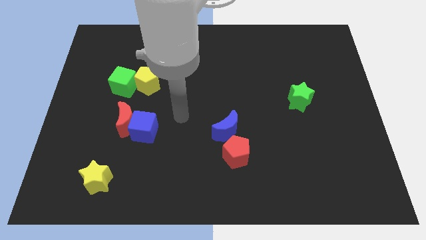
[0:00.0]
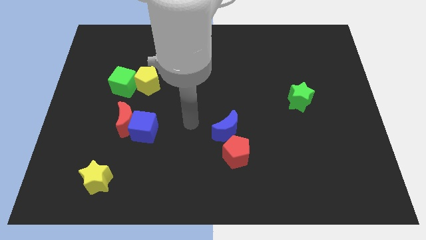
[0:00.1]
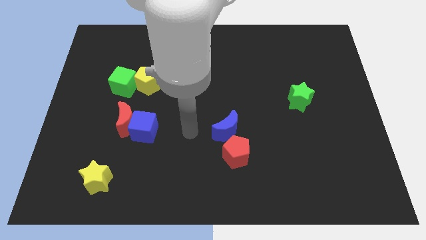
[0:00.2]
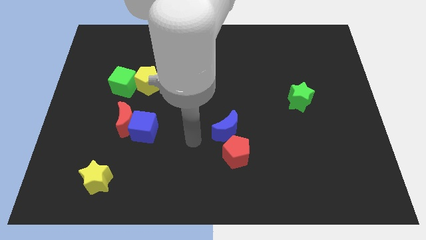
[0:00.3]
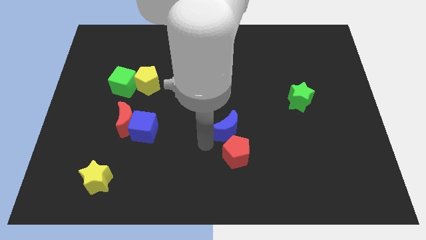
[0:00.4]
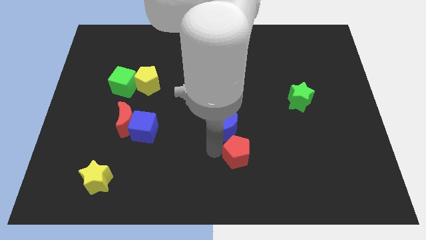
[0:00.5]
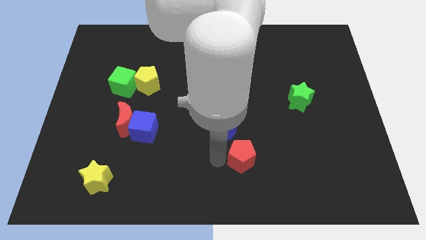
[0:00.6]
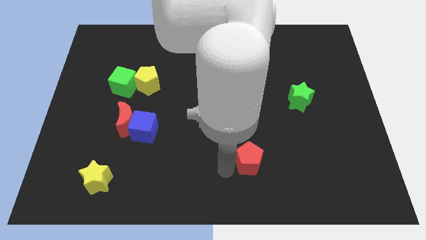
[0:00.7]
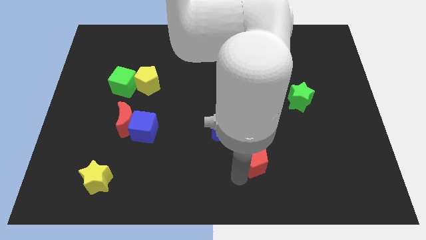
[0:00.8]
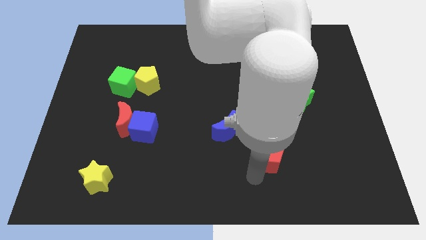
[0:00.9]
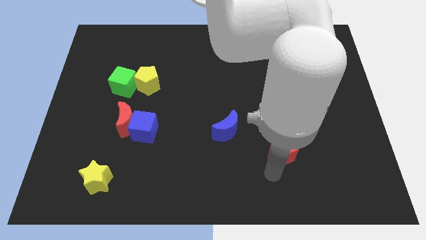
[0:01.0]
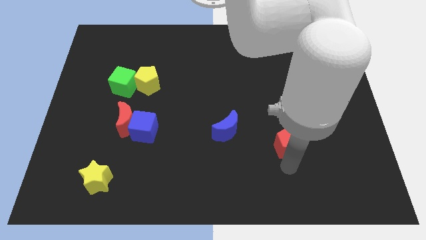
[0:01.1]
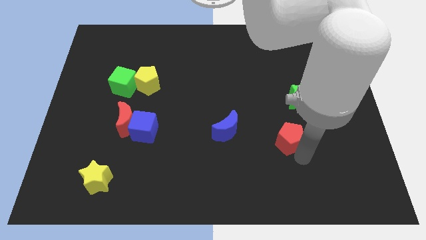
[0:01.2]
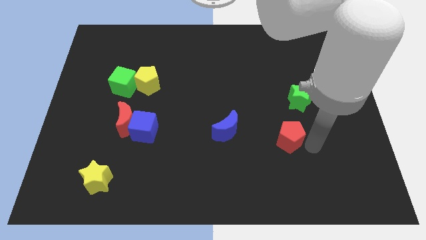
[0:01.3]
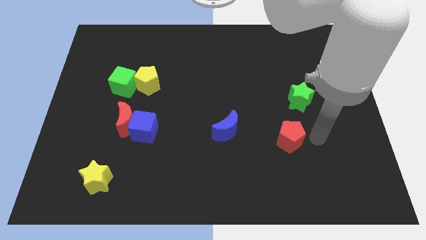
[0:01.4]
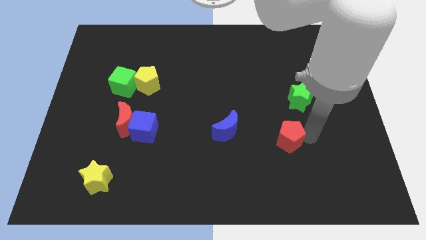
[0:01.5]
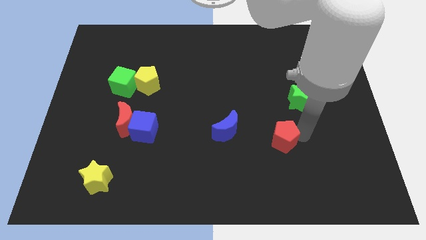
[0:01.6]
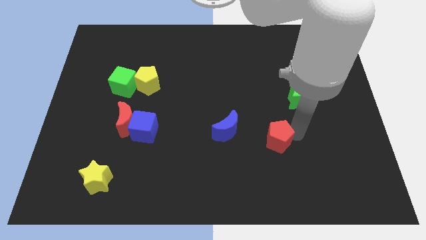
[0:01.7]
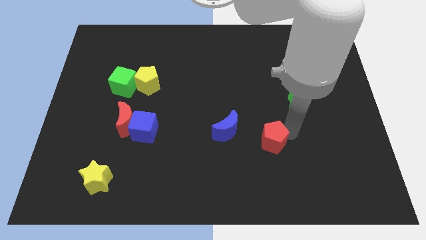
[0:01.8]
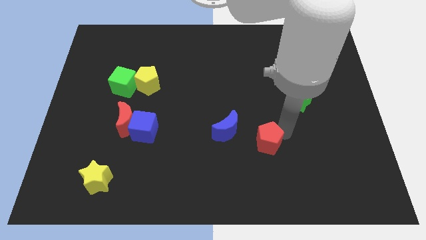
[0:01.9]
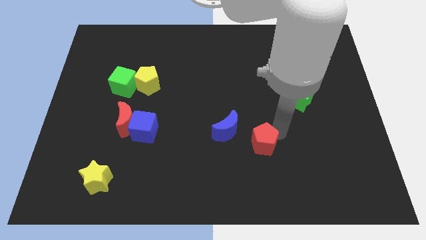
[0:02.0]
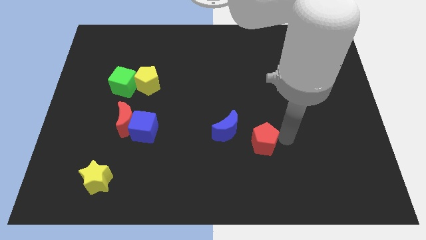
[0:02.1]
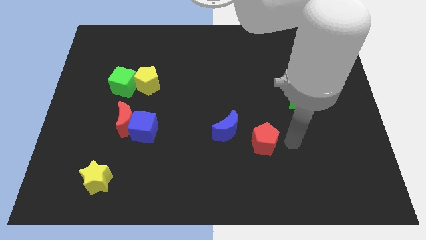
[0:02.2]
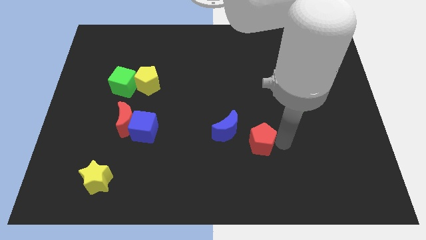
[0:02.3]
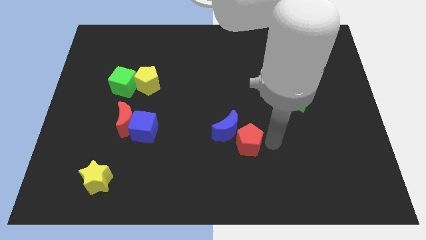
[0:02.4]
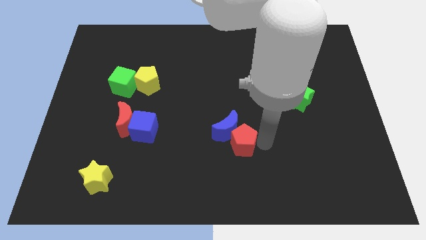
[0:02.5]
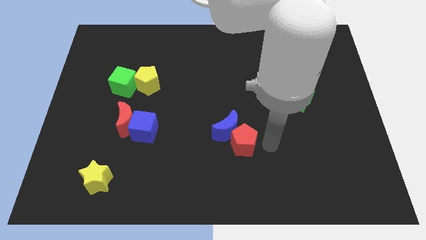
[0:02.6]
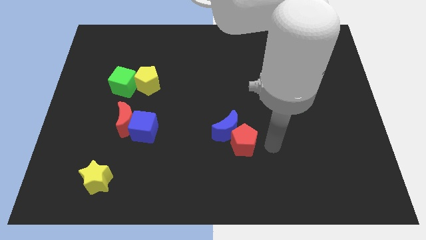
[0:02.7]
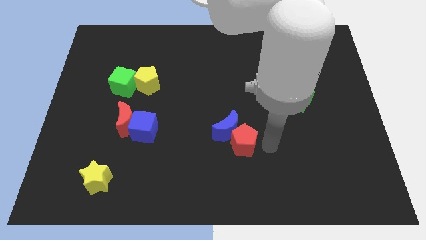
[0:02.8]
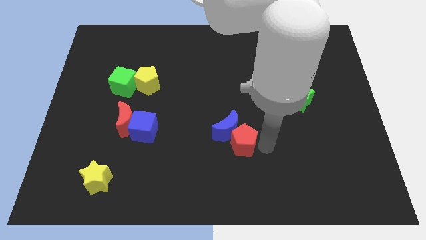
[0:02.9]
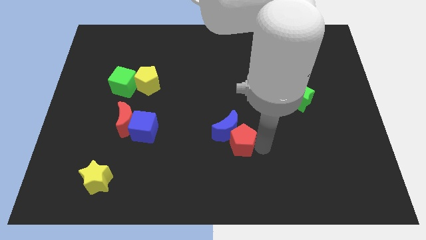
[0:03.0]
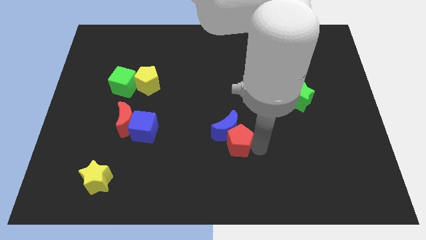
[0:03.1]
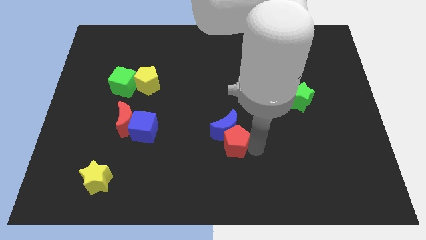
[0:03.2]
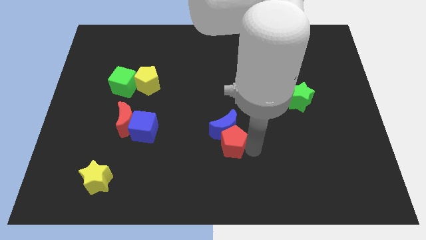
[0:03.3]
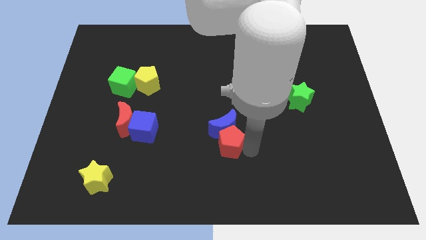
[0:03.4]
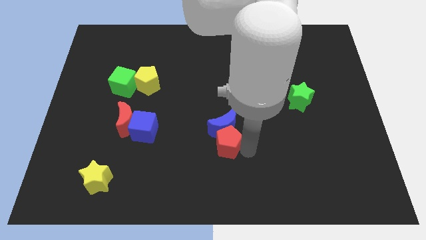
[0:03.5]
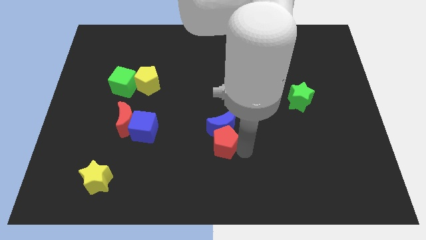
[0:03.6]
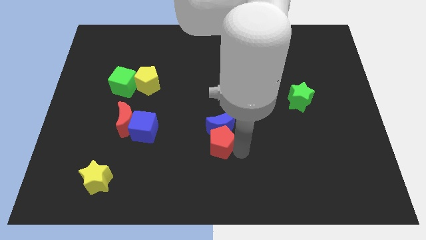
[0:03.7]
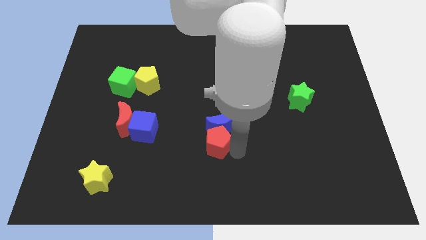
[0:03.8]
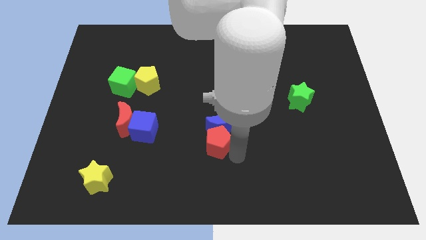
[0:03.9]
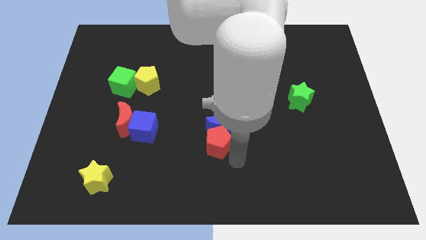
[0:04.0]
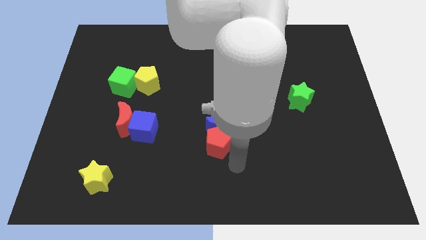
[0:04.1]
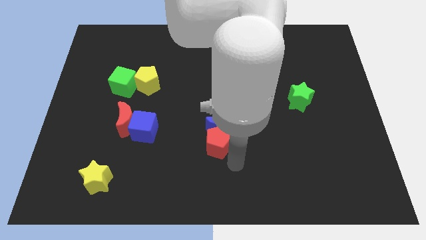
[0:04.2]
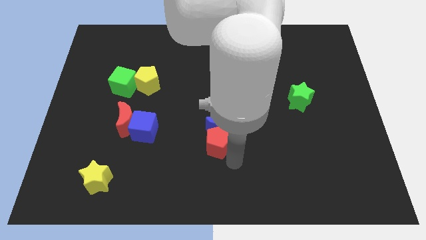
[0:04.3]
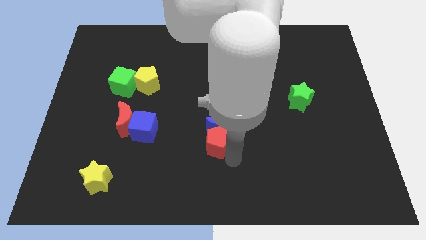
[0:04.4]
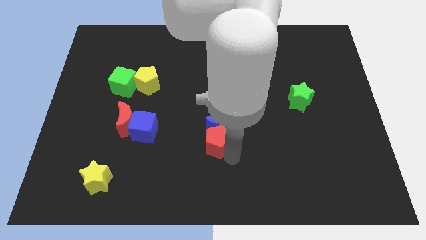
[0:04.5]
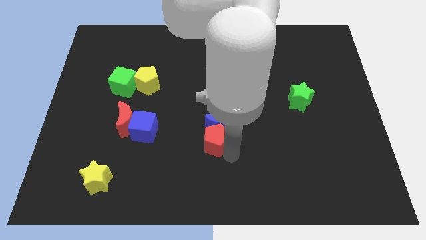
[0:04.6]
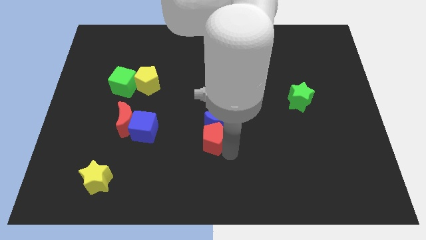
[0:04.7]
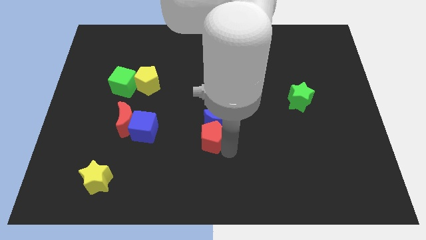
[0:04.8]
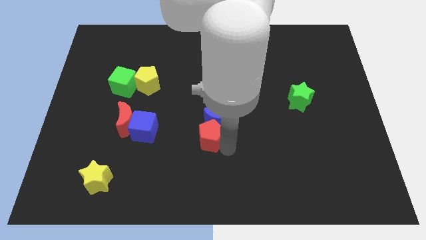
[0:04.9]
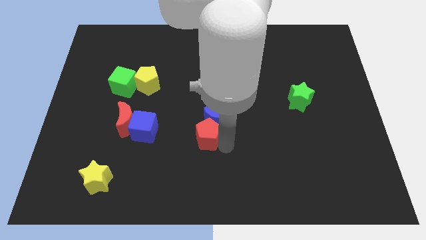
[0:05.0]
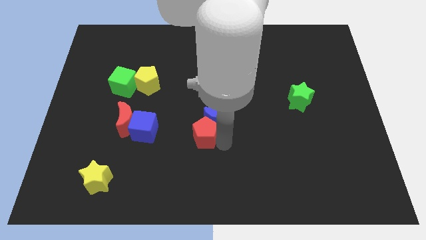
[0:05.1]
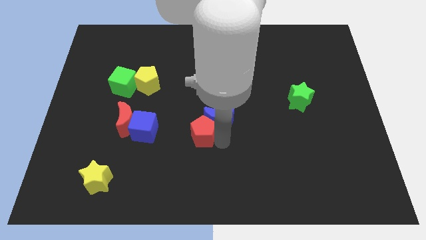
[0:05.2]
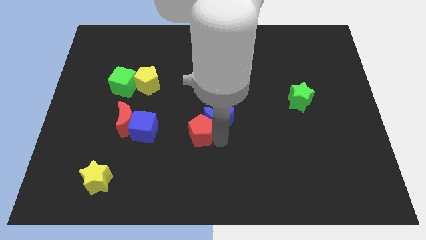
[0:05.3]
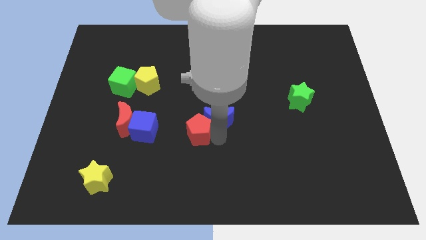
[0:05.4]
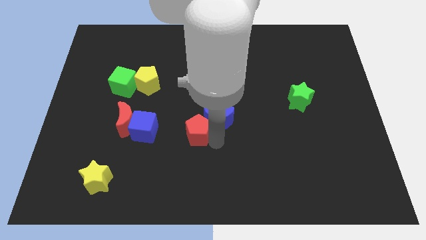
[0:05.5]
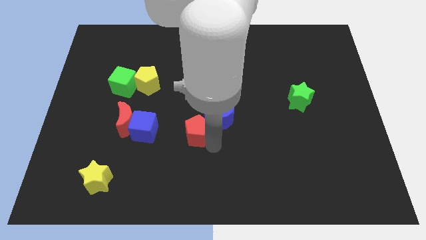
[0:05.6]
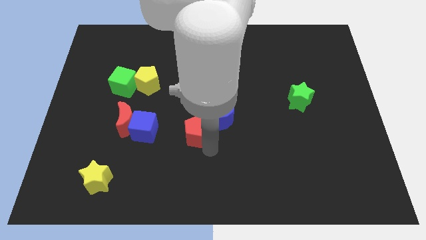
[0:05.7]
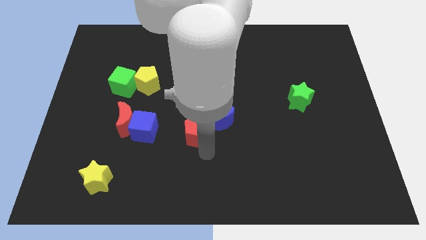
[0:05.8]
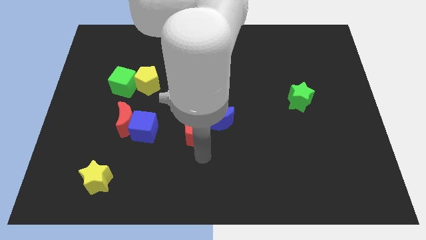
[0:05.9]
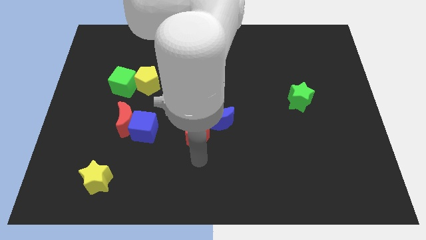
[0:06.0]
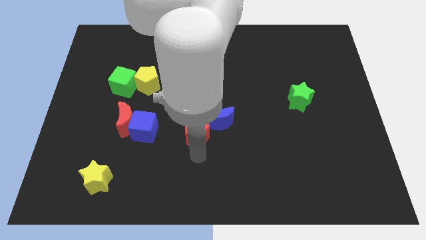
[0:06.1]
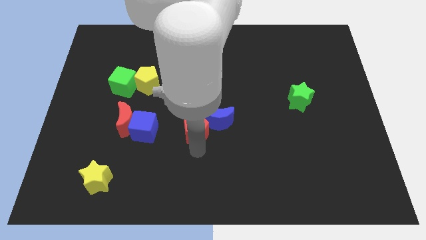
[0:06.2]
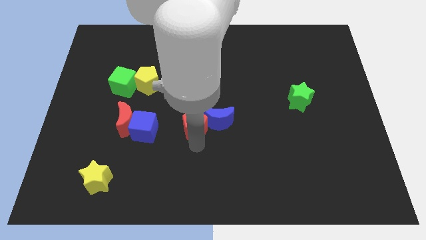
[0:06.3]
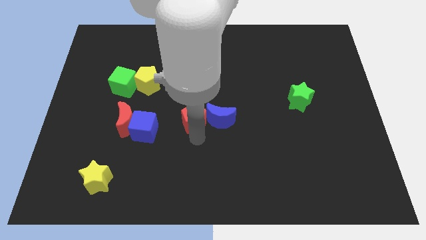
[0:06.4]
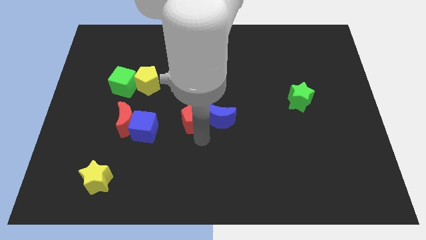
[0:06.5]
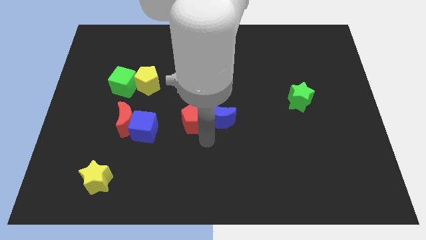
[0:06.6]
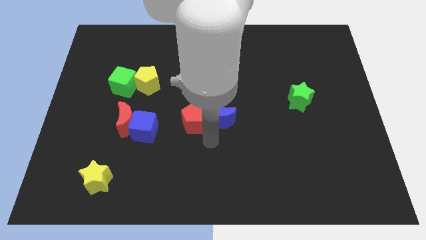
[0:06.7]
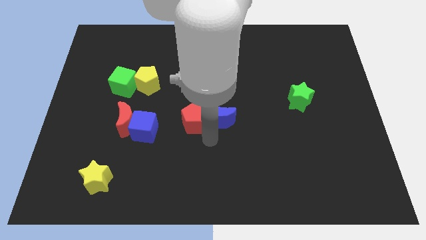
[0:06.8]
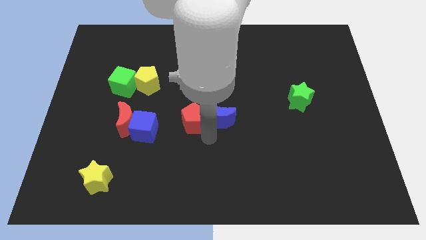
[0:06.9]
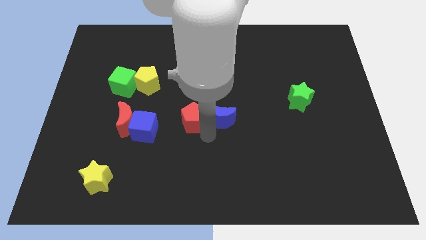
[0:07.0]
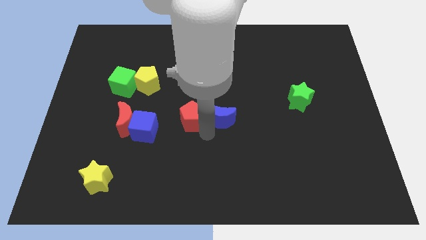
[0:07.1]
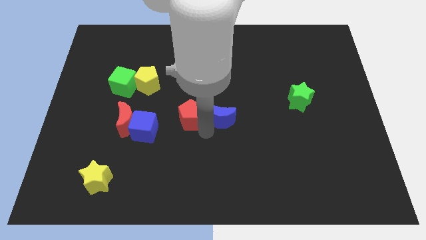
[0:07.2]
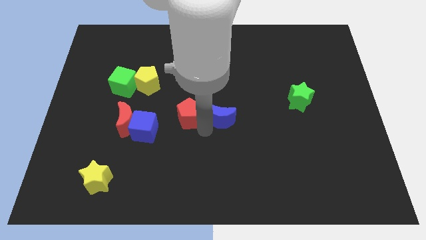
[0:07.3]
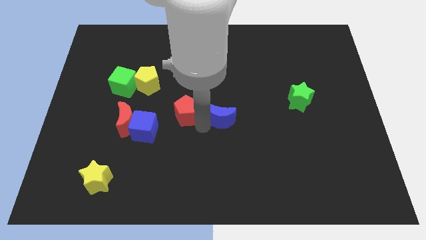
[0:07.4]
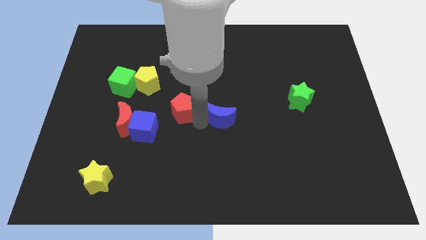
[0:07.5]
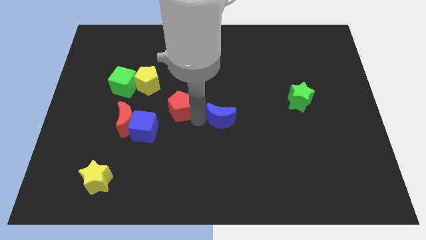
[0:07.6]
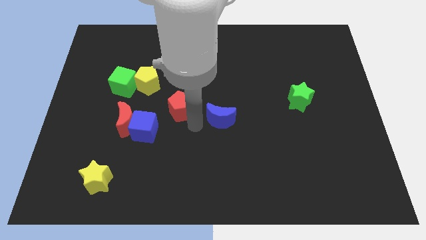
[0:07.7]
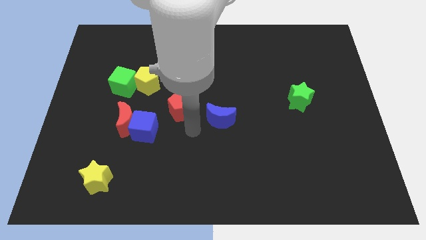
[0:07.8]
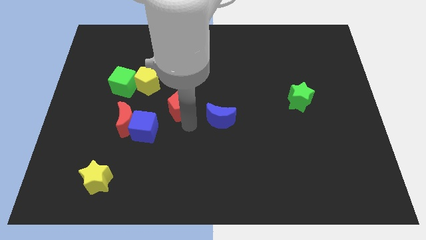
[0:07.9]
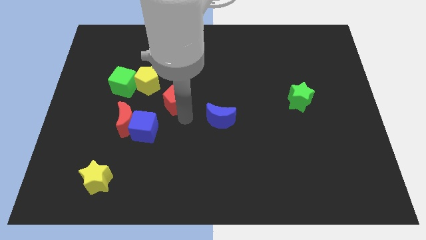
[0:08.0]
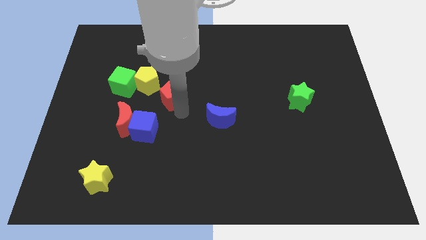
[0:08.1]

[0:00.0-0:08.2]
slide the red pentagon to the right side of the green cube
